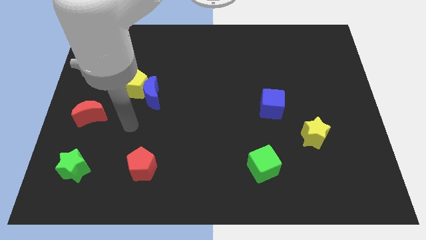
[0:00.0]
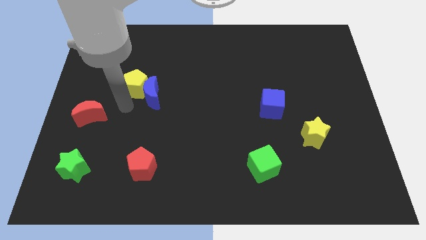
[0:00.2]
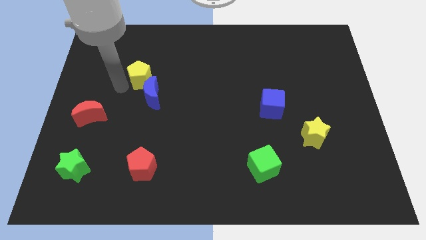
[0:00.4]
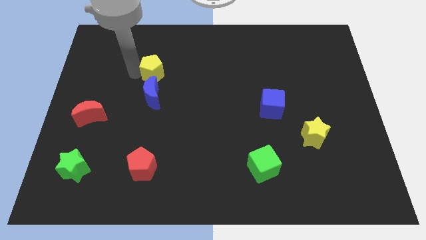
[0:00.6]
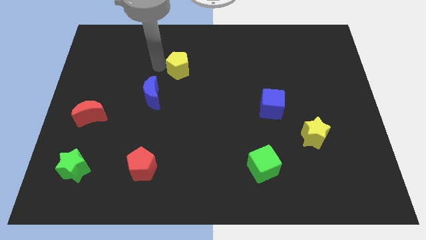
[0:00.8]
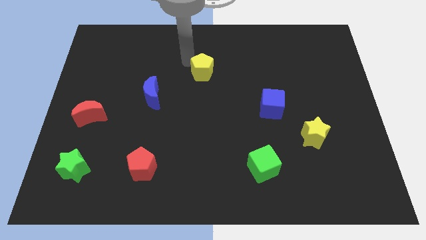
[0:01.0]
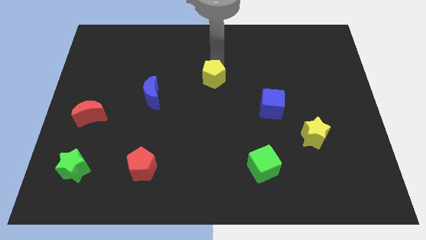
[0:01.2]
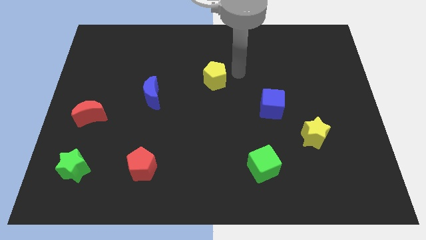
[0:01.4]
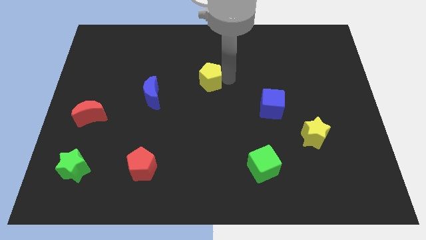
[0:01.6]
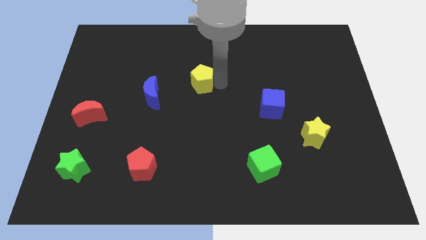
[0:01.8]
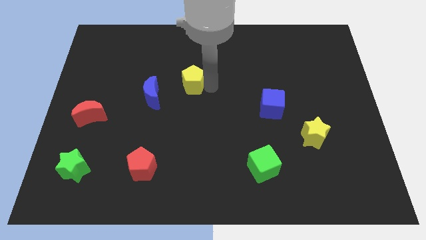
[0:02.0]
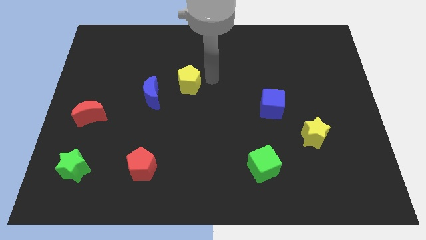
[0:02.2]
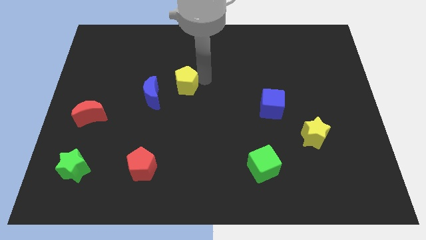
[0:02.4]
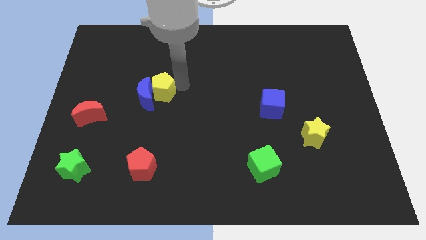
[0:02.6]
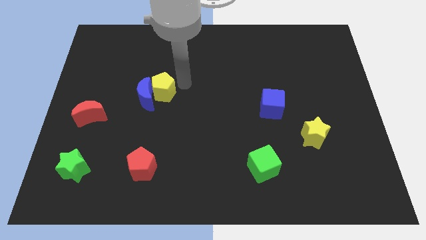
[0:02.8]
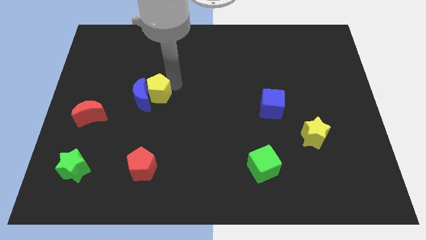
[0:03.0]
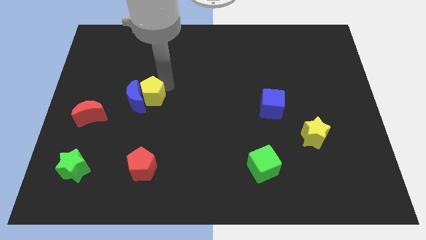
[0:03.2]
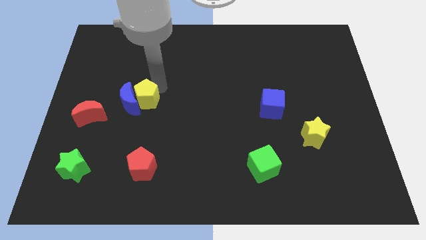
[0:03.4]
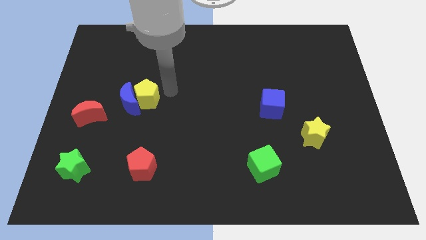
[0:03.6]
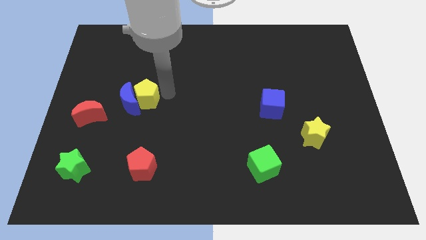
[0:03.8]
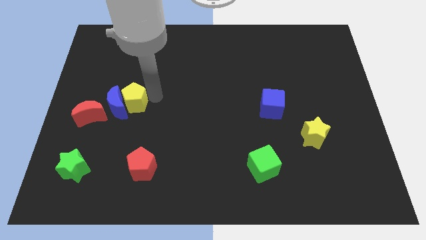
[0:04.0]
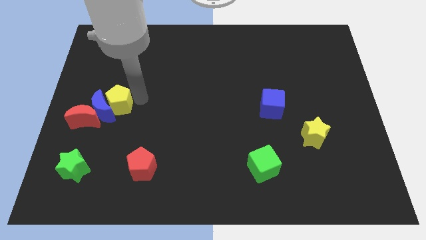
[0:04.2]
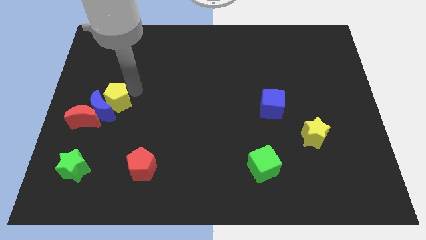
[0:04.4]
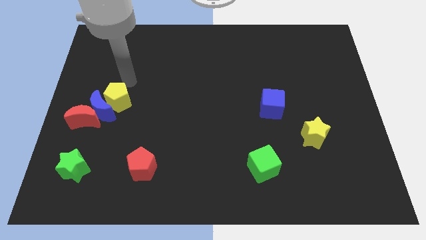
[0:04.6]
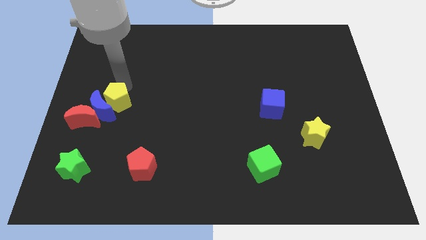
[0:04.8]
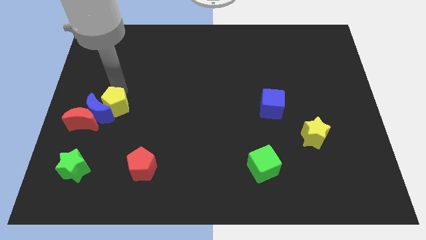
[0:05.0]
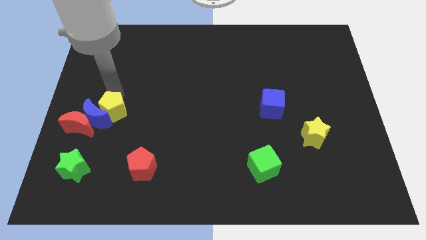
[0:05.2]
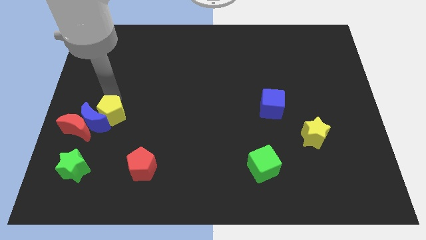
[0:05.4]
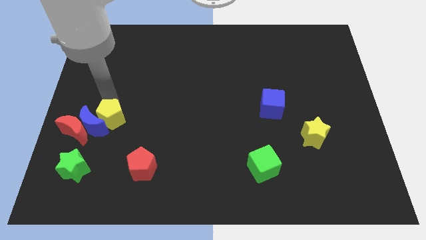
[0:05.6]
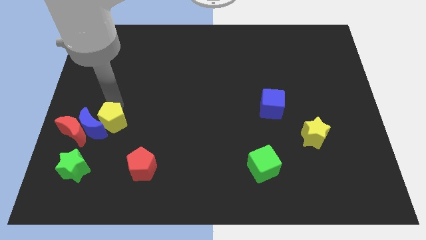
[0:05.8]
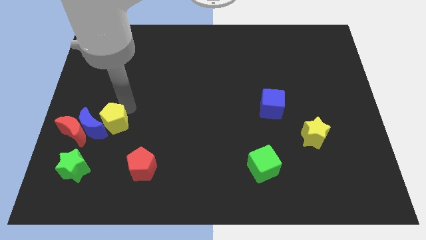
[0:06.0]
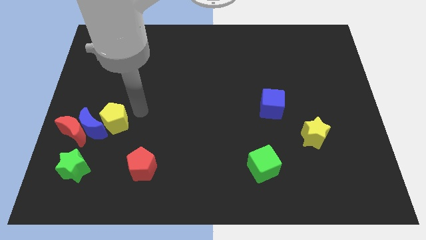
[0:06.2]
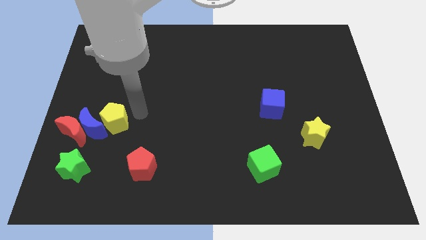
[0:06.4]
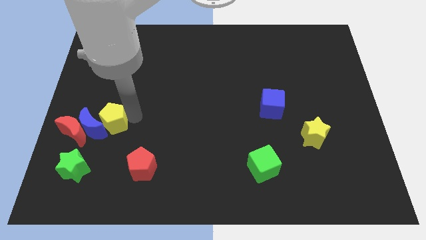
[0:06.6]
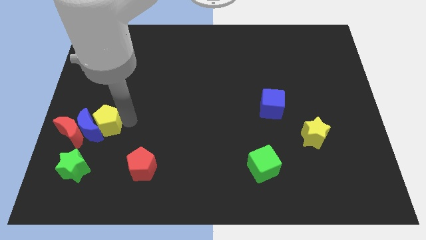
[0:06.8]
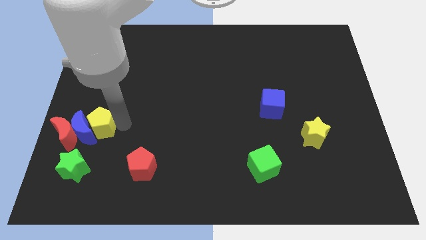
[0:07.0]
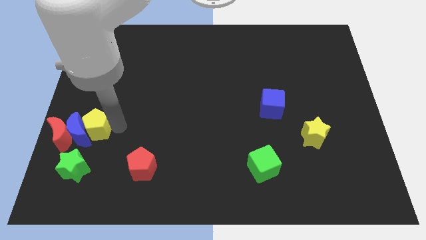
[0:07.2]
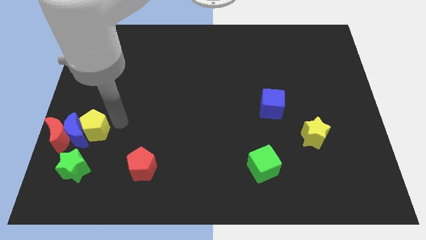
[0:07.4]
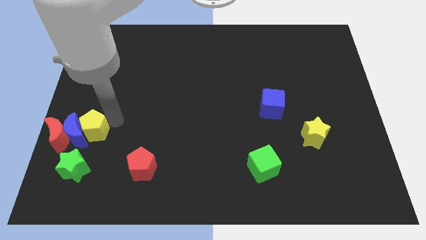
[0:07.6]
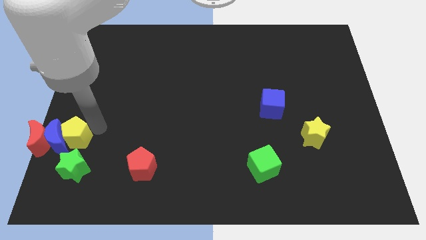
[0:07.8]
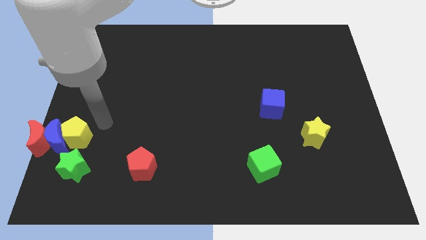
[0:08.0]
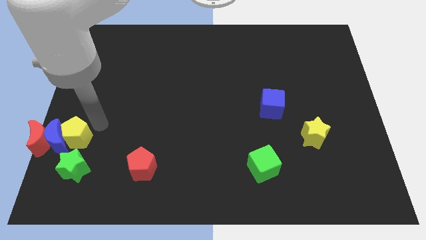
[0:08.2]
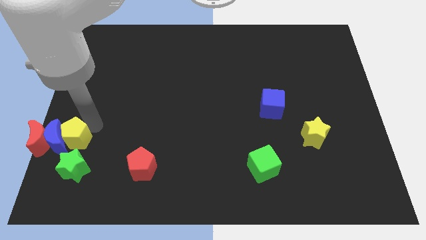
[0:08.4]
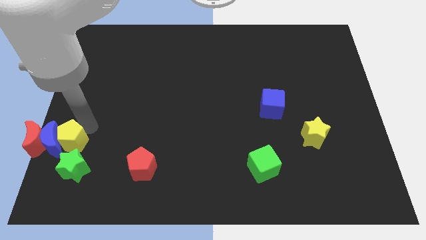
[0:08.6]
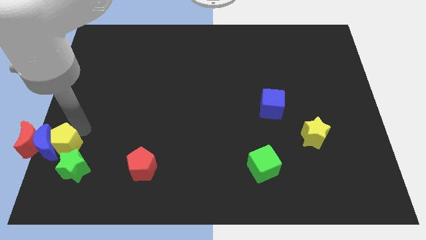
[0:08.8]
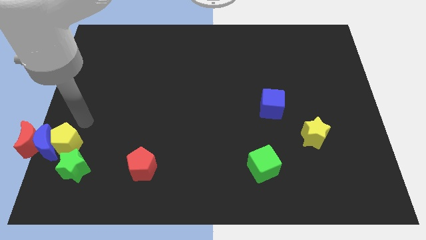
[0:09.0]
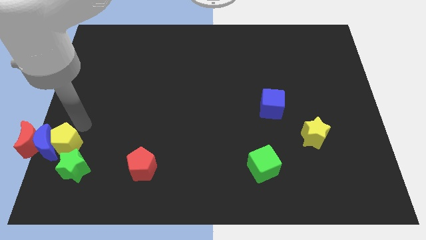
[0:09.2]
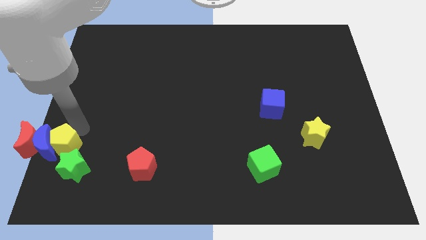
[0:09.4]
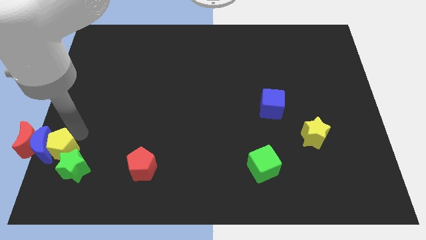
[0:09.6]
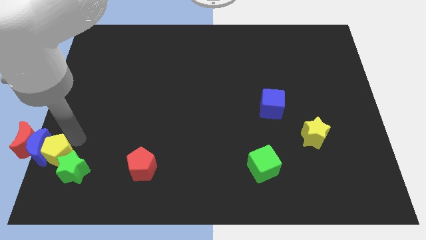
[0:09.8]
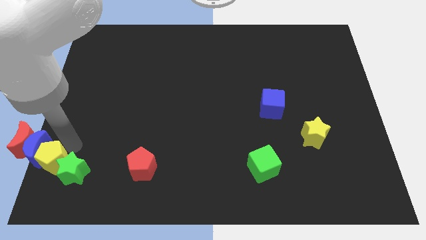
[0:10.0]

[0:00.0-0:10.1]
move the yellow pentagon to the bottom left of the board

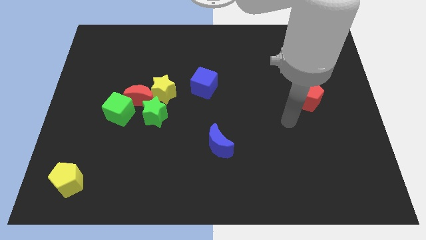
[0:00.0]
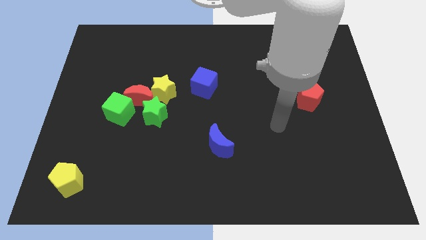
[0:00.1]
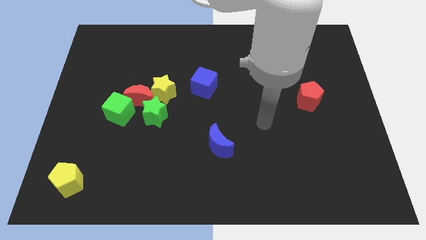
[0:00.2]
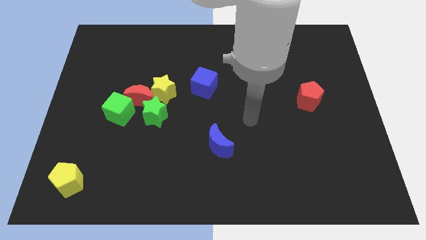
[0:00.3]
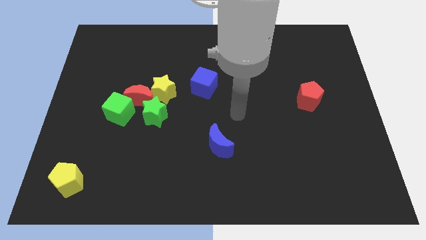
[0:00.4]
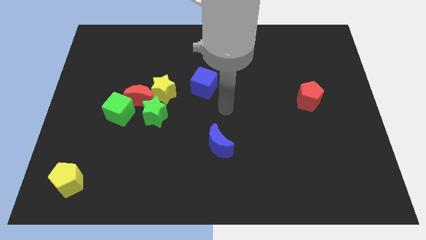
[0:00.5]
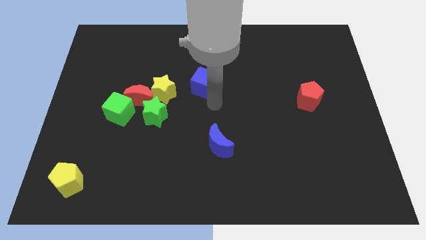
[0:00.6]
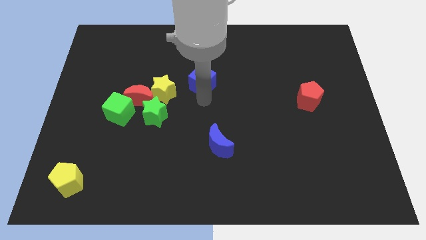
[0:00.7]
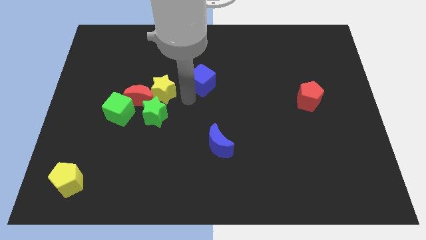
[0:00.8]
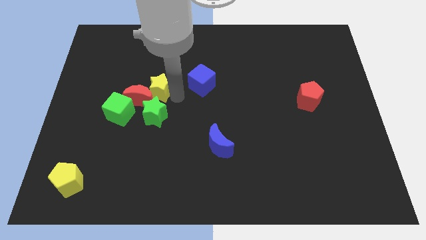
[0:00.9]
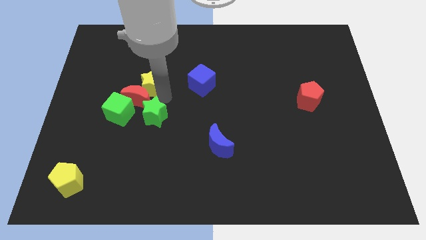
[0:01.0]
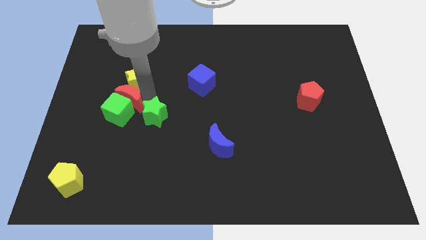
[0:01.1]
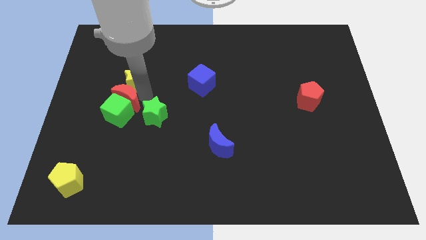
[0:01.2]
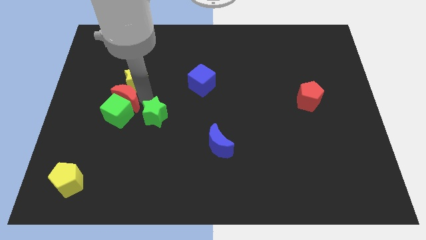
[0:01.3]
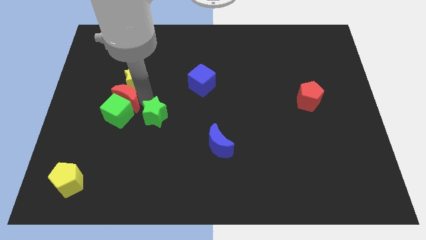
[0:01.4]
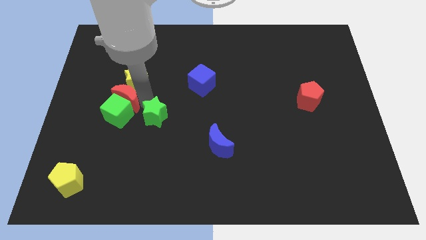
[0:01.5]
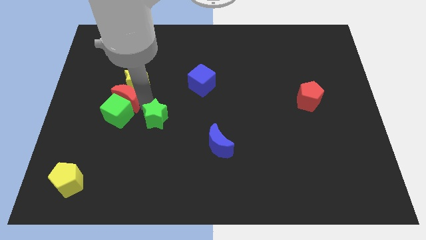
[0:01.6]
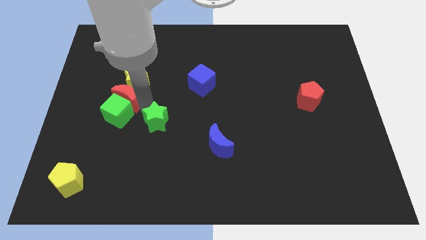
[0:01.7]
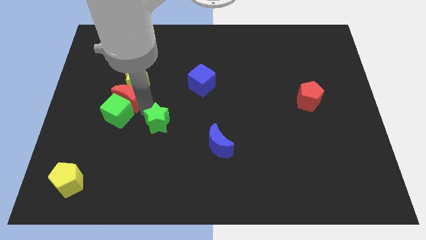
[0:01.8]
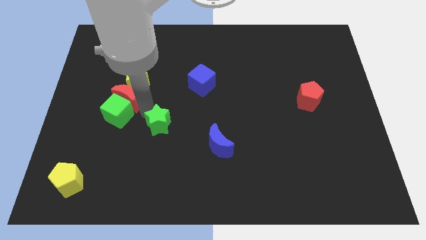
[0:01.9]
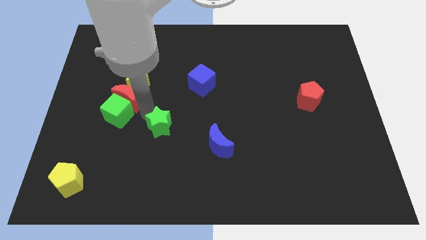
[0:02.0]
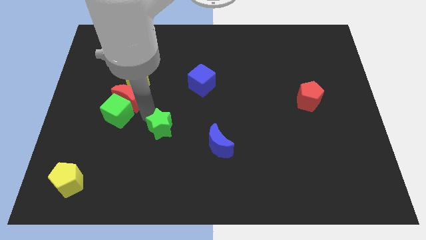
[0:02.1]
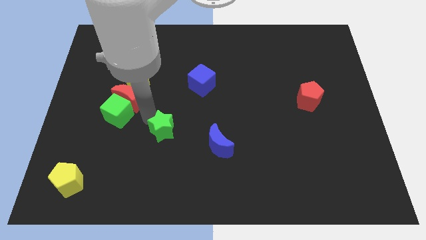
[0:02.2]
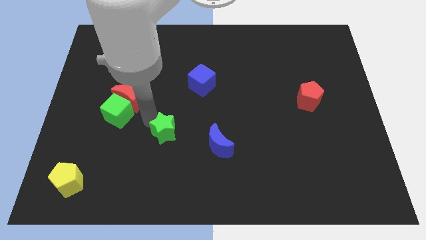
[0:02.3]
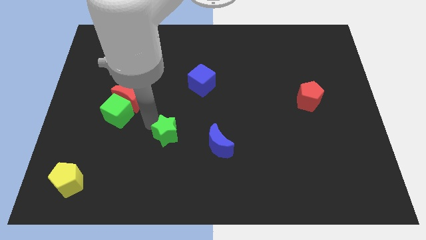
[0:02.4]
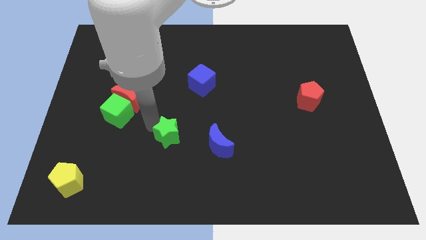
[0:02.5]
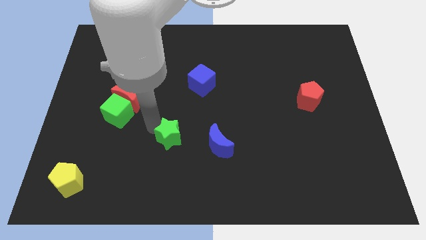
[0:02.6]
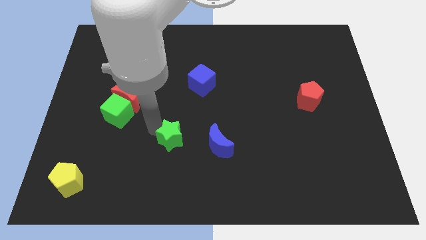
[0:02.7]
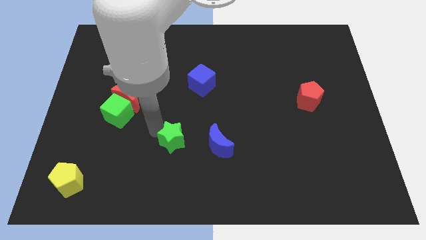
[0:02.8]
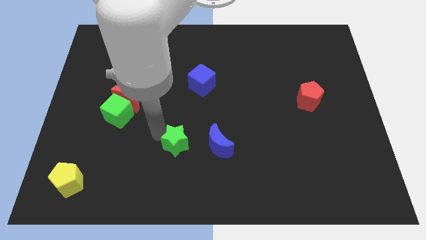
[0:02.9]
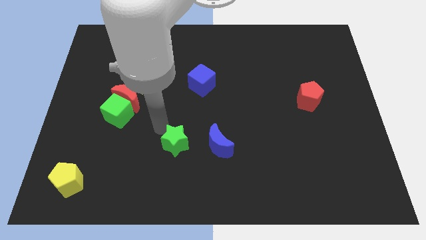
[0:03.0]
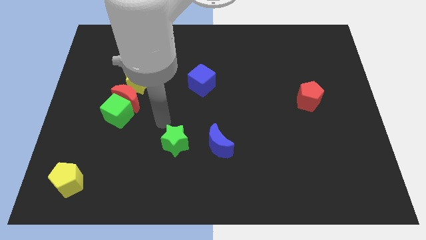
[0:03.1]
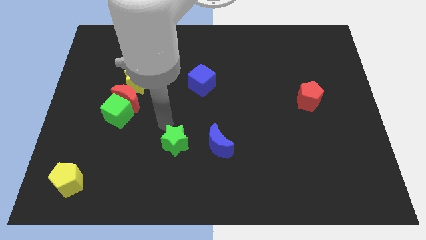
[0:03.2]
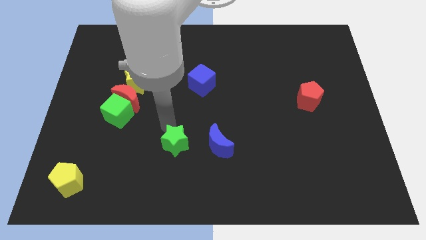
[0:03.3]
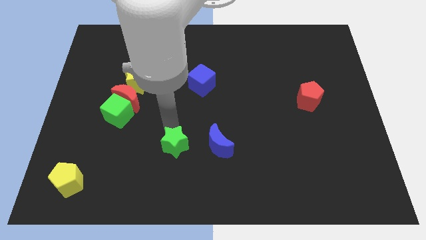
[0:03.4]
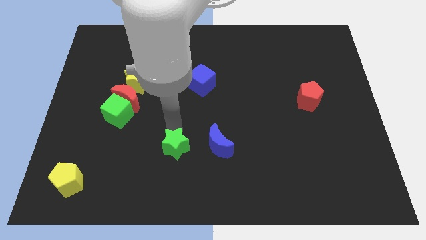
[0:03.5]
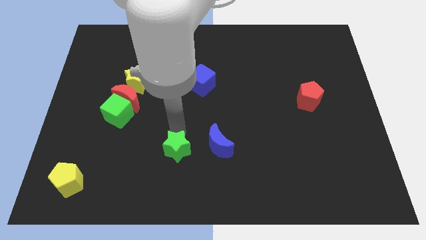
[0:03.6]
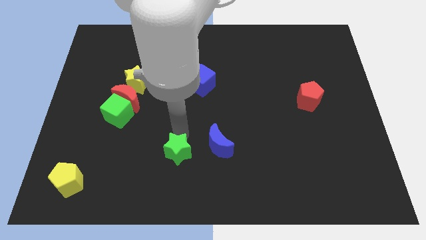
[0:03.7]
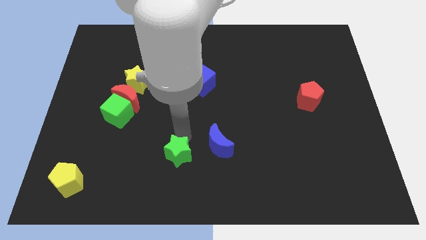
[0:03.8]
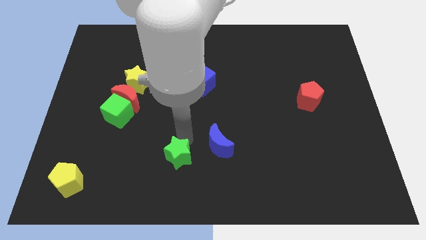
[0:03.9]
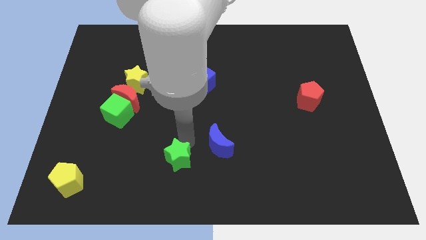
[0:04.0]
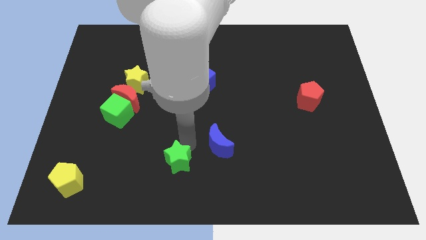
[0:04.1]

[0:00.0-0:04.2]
put the green star to the bottom
